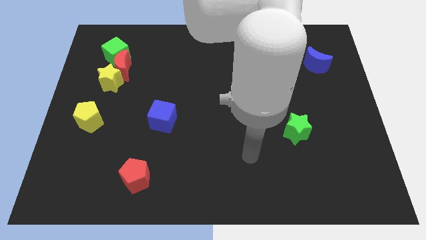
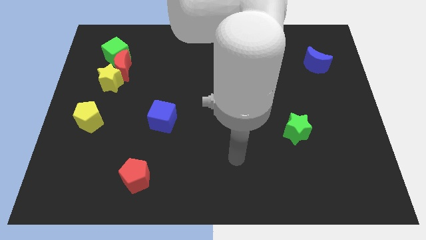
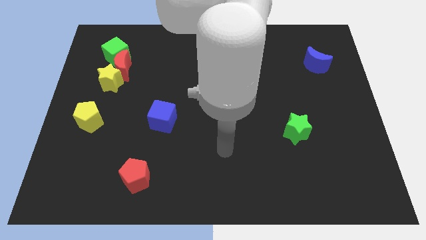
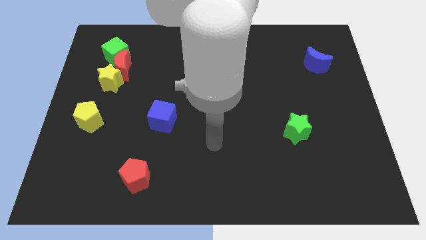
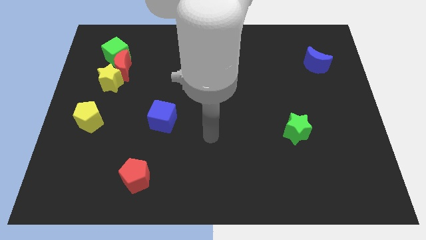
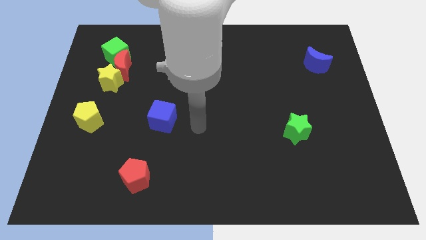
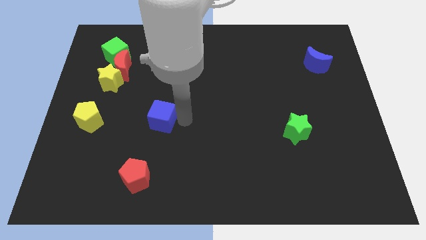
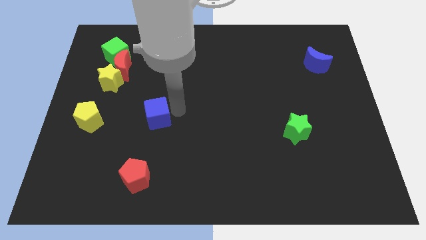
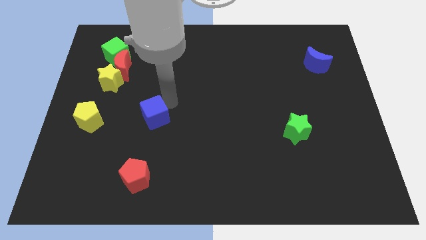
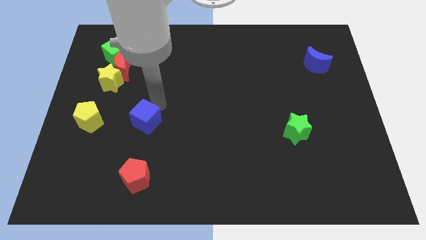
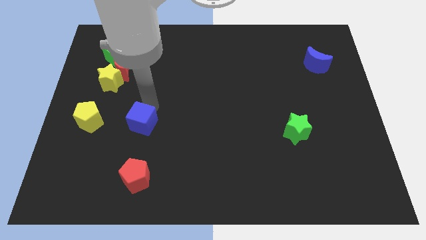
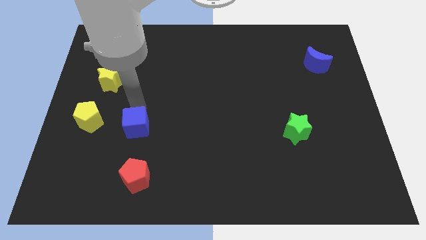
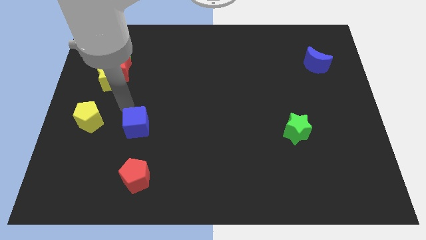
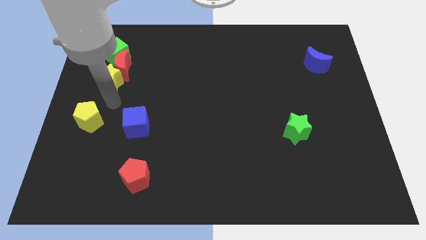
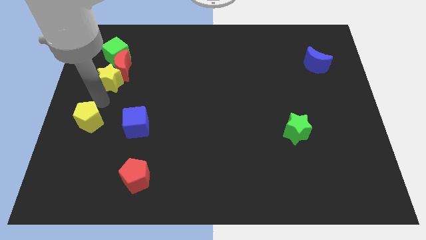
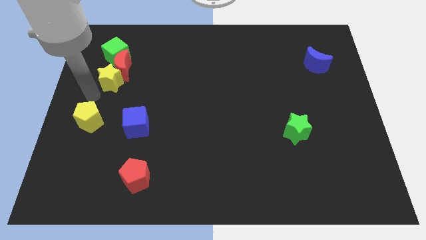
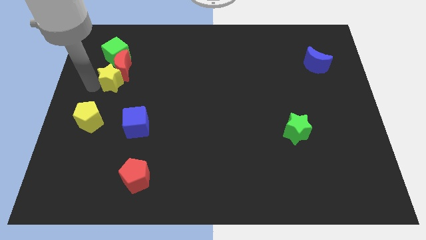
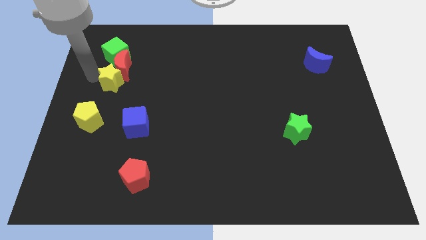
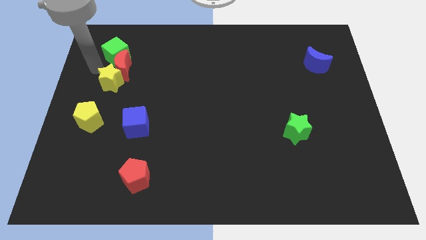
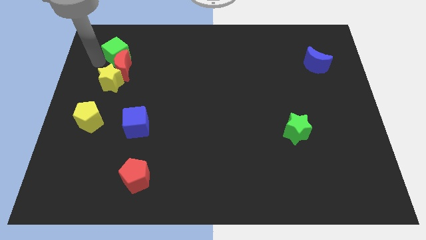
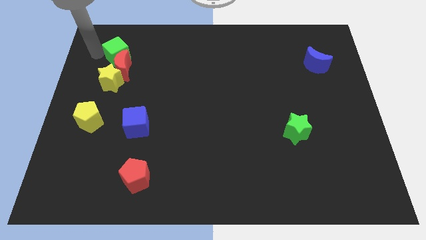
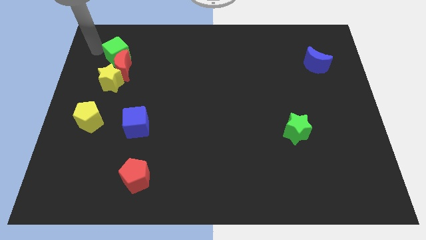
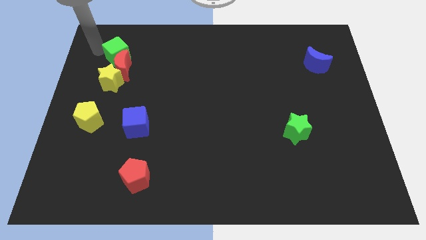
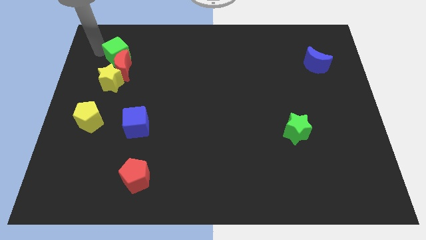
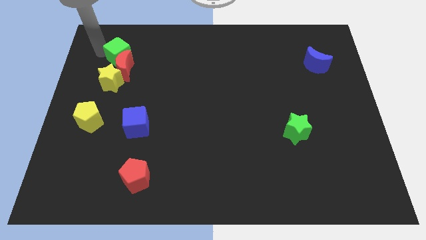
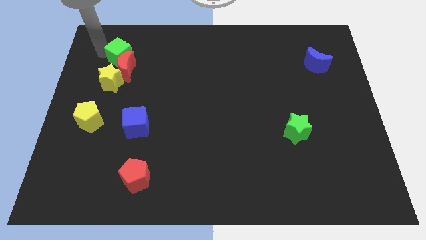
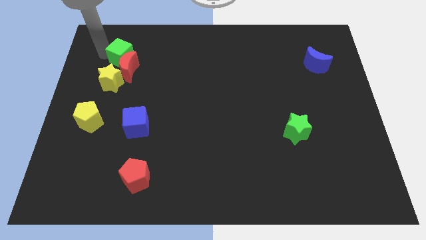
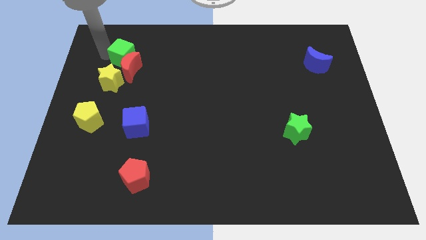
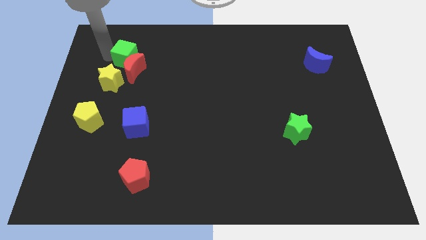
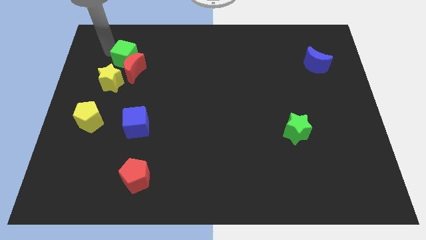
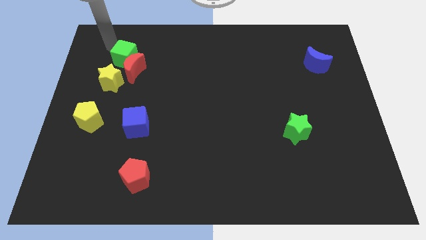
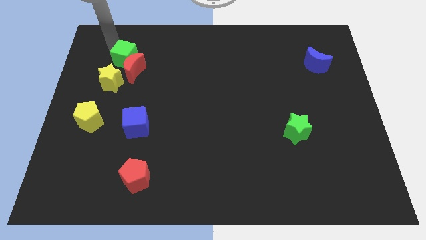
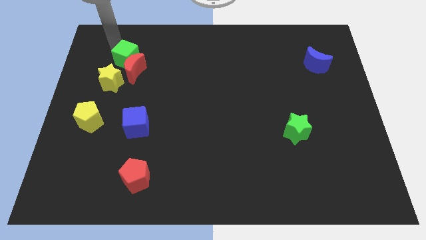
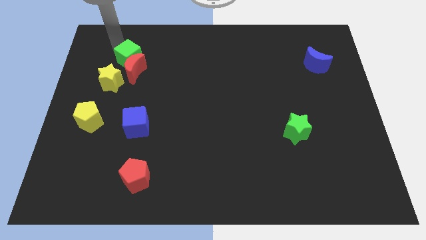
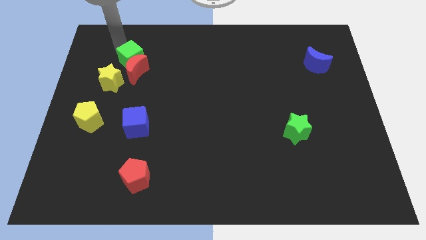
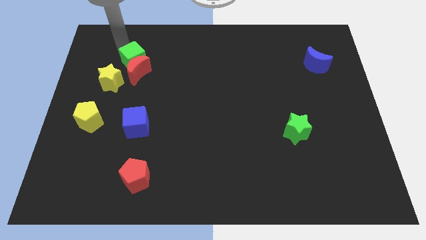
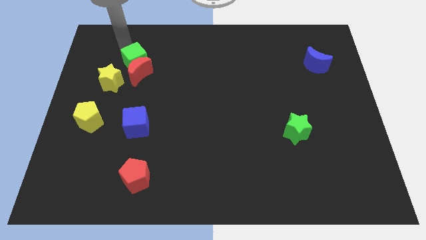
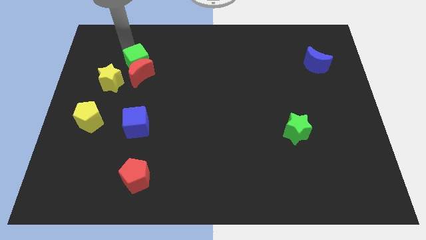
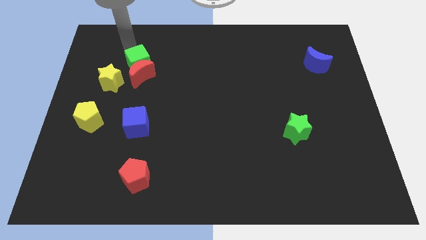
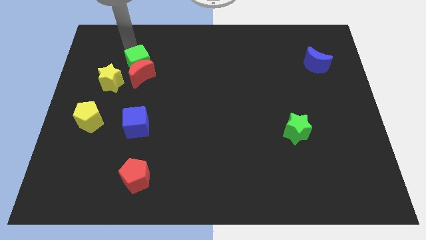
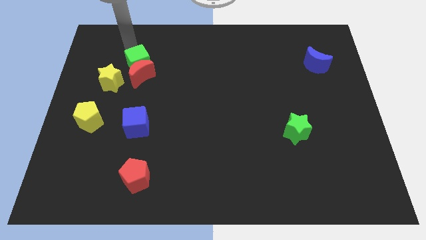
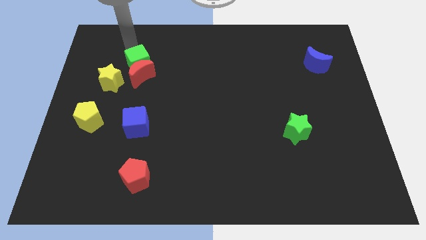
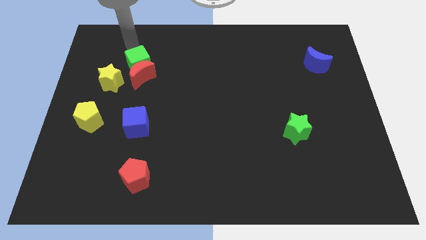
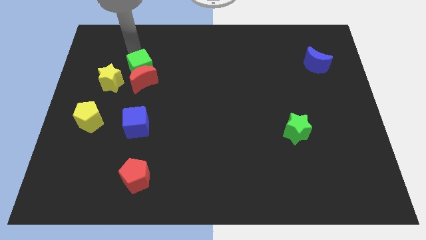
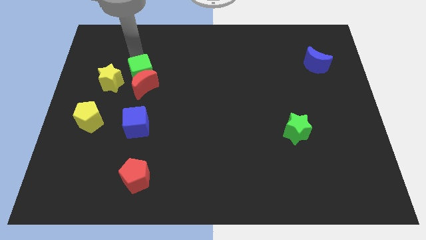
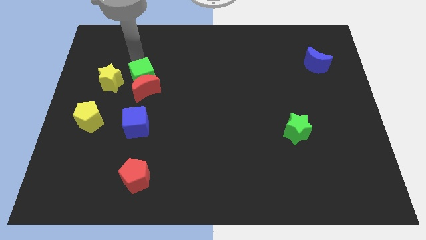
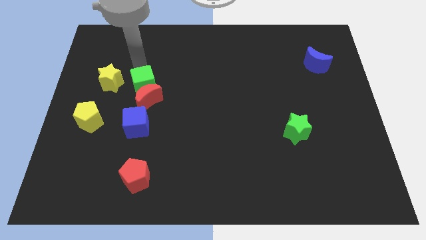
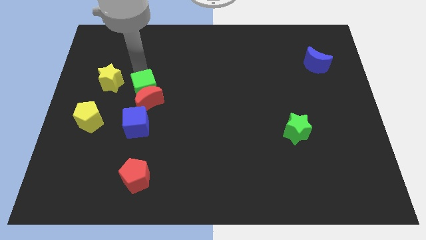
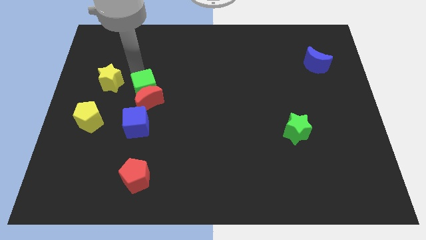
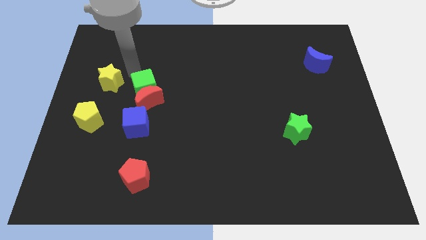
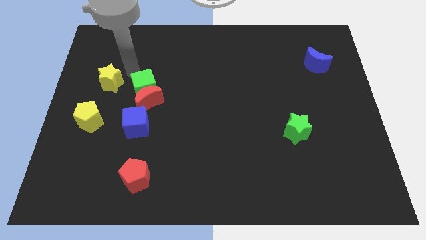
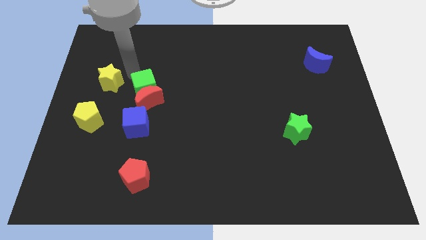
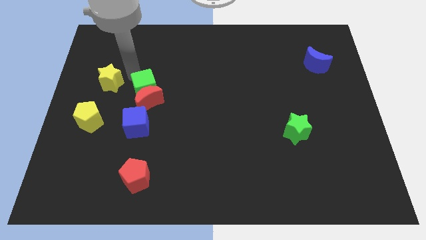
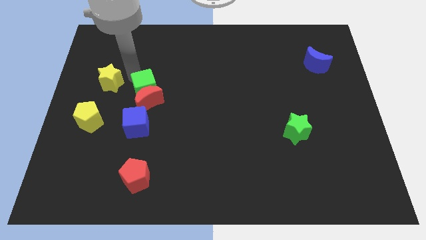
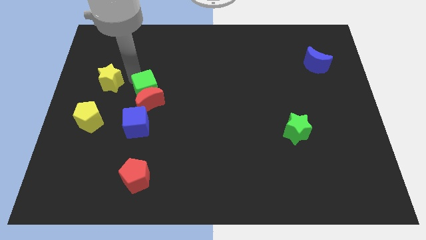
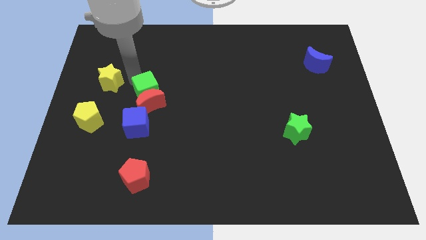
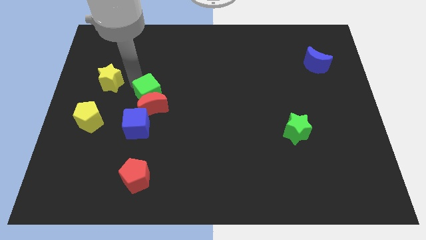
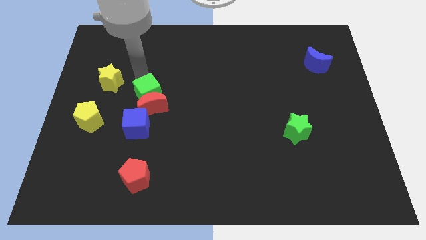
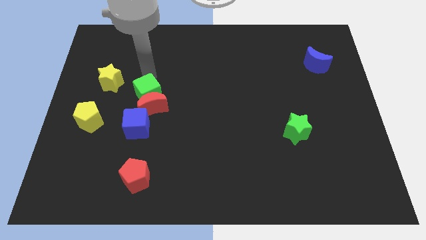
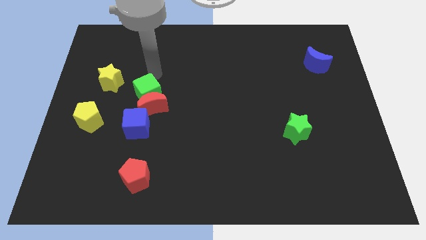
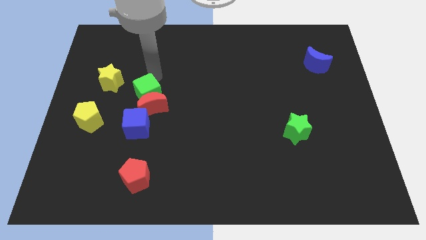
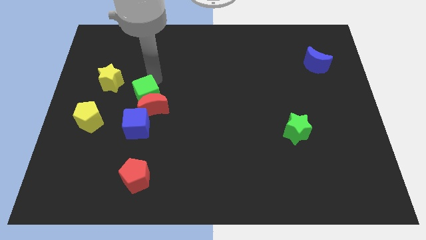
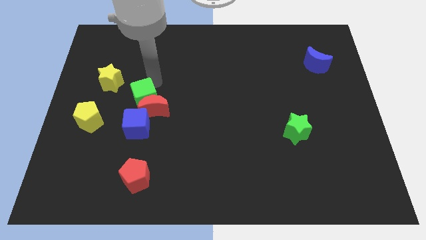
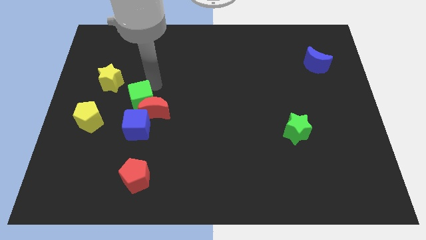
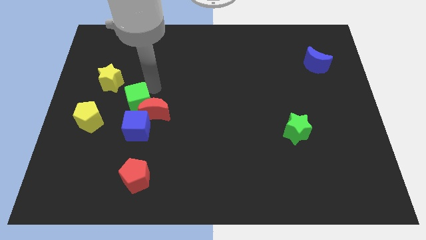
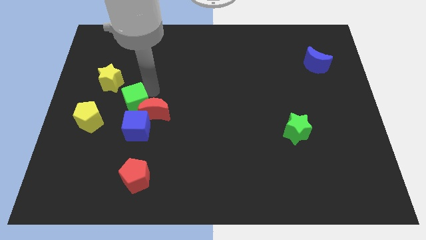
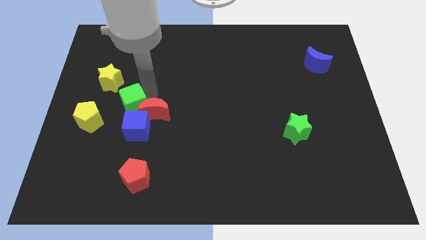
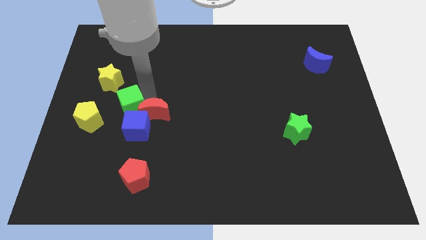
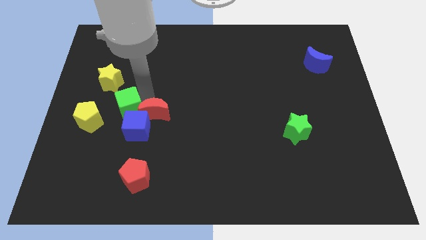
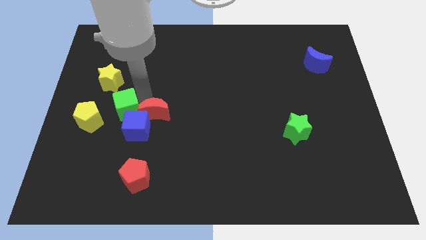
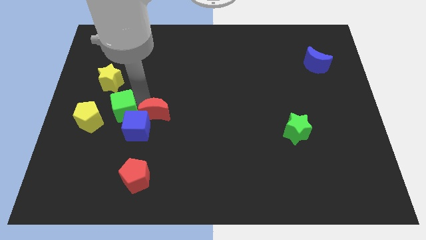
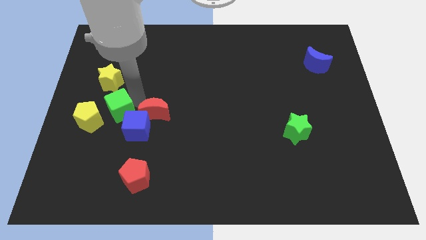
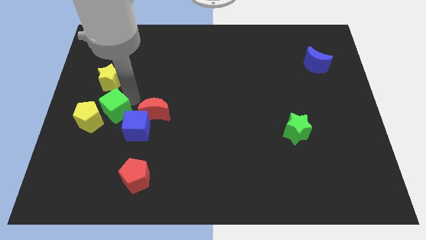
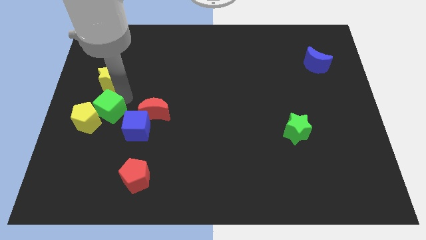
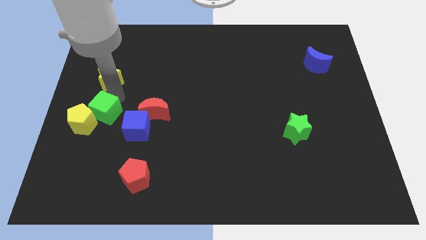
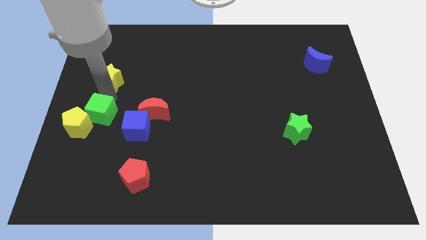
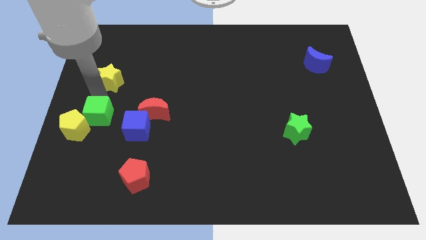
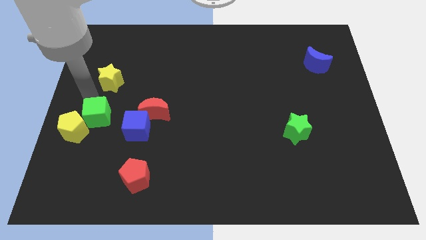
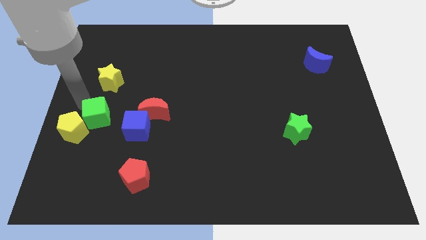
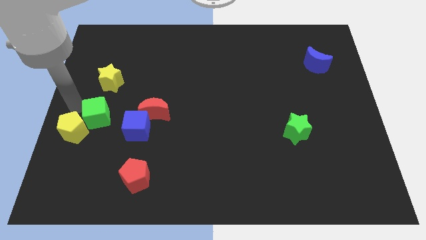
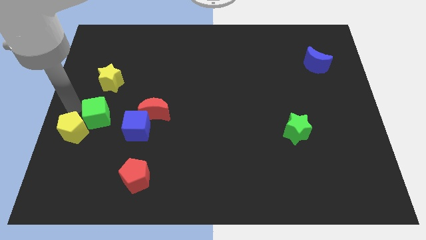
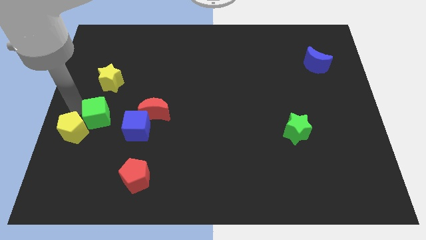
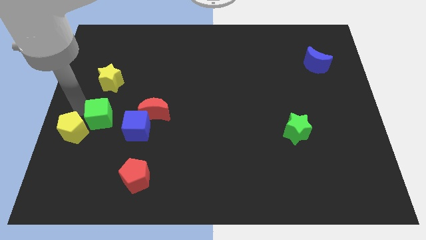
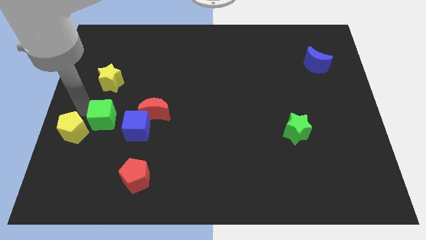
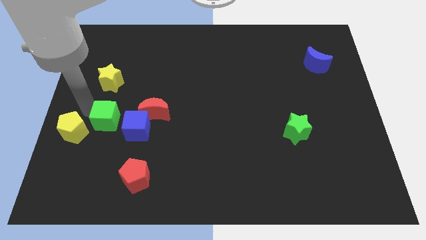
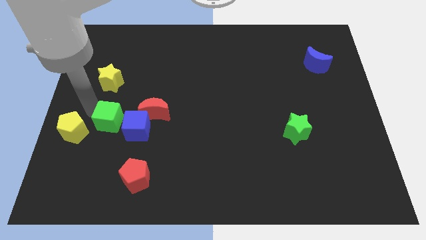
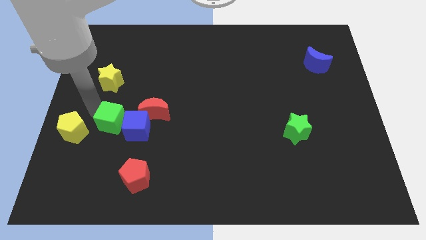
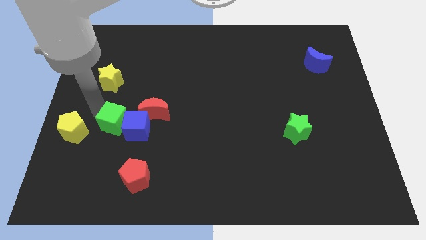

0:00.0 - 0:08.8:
move the green cube towards the blue cube
